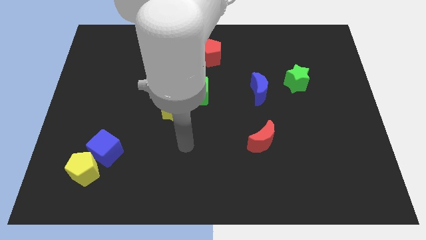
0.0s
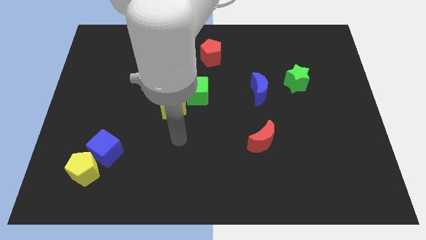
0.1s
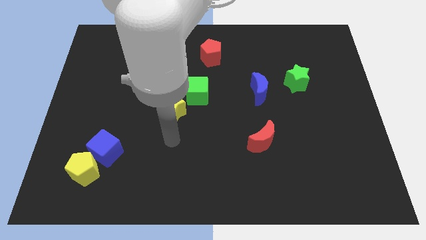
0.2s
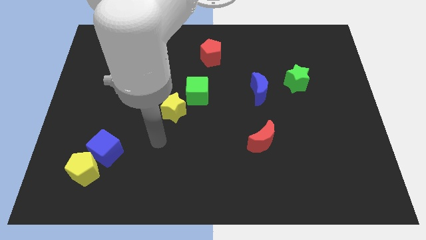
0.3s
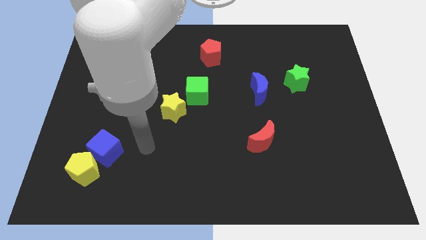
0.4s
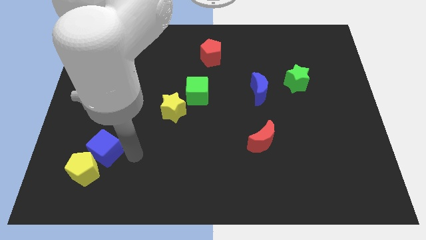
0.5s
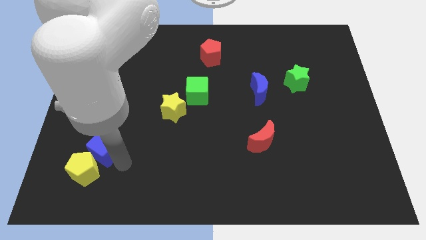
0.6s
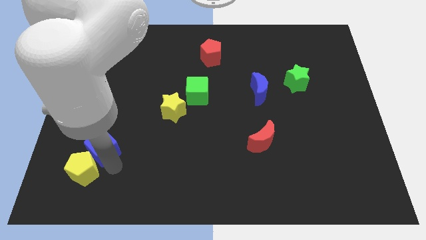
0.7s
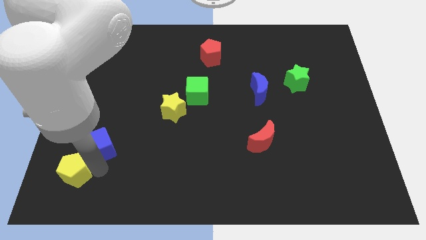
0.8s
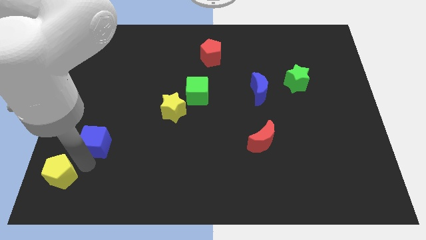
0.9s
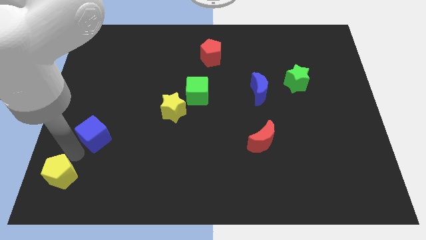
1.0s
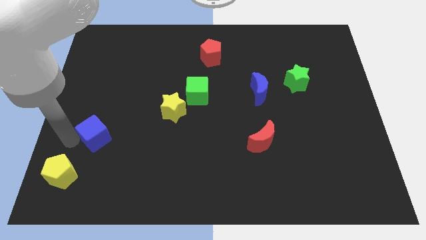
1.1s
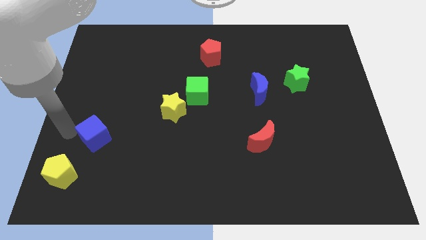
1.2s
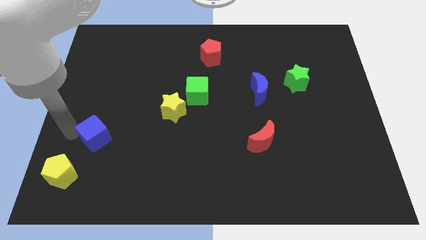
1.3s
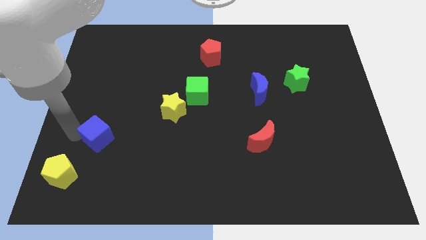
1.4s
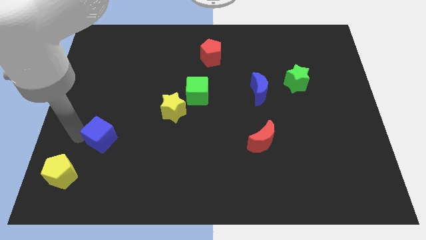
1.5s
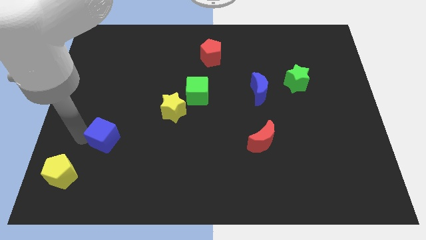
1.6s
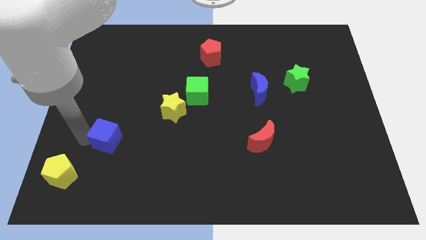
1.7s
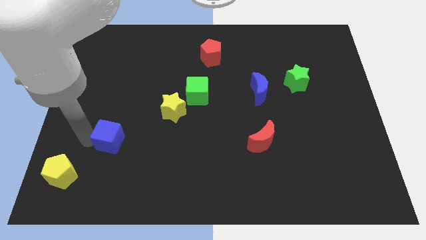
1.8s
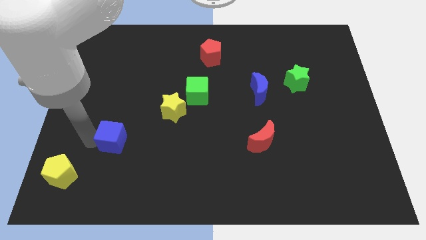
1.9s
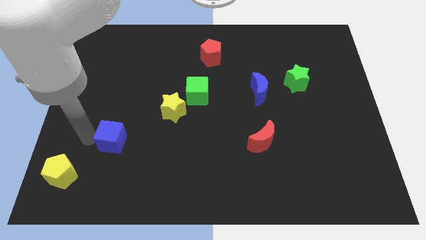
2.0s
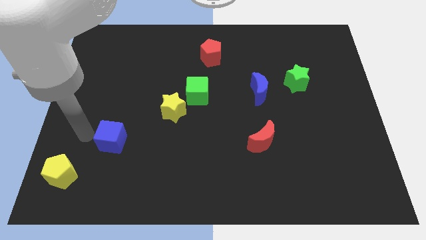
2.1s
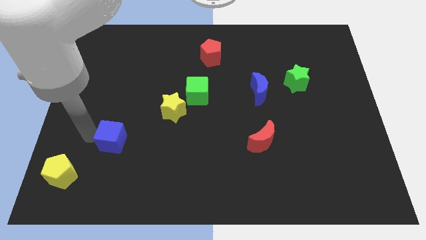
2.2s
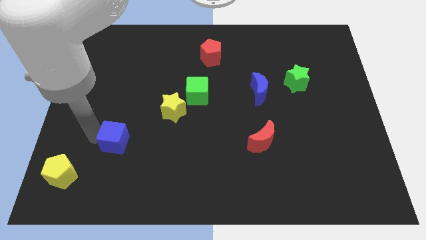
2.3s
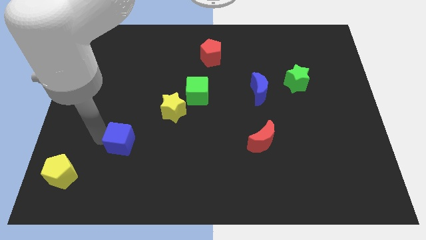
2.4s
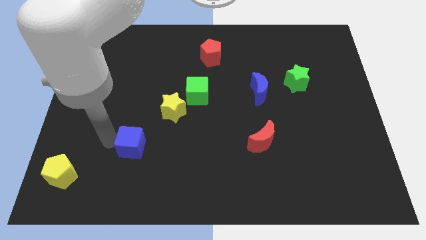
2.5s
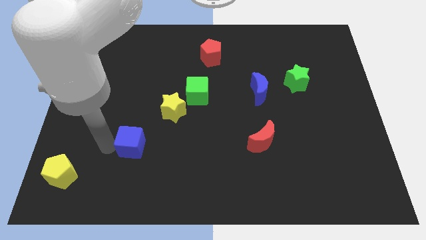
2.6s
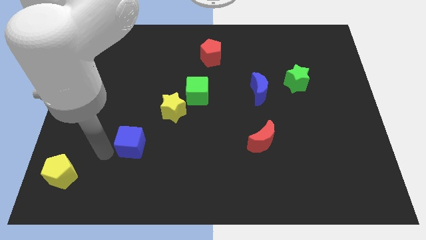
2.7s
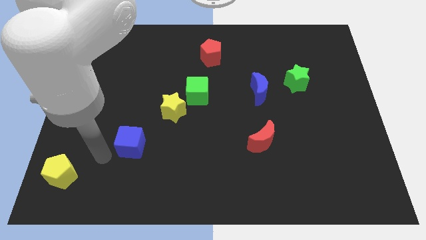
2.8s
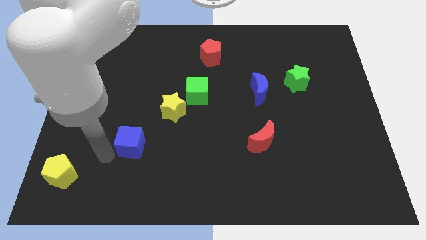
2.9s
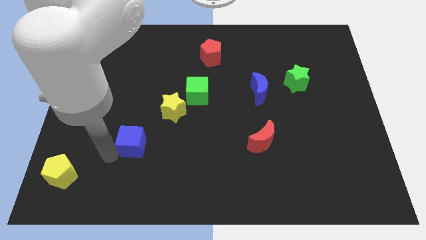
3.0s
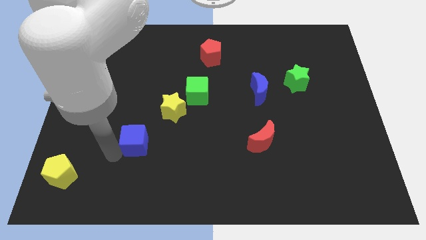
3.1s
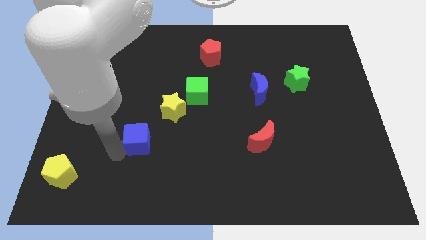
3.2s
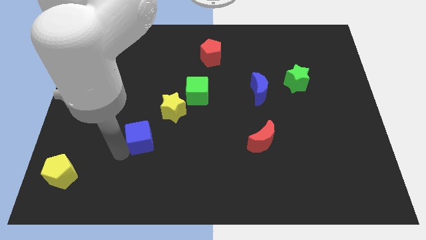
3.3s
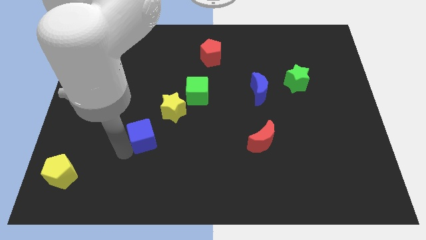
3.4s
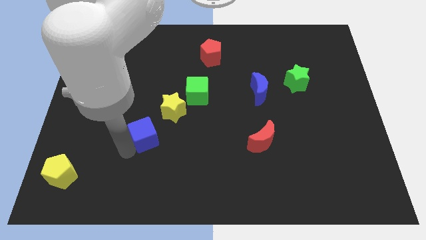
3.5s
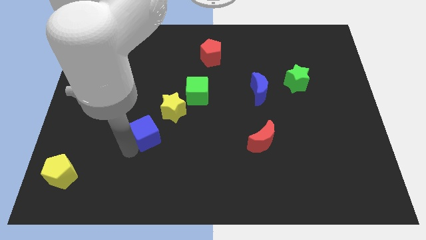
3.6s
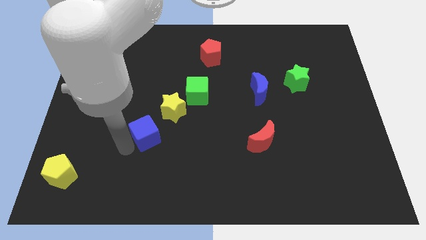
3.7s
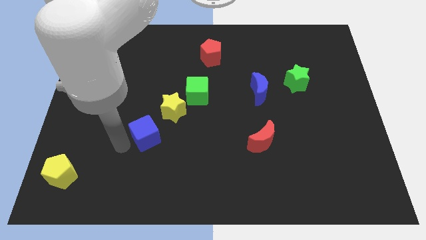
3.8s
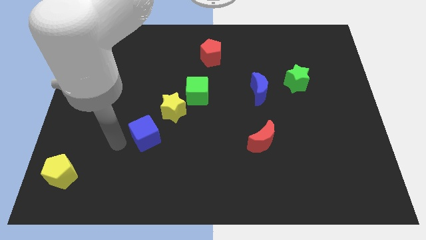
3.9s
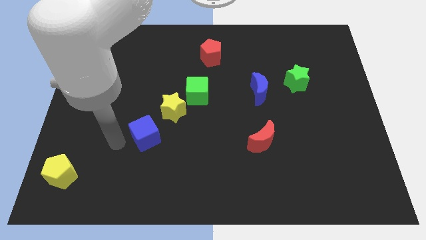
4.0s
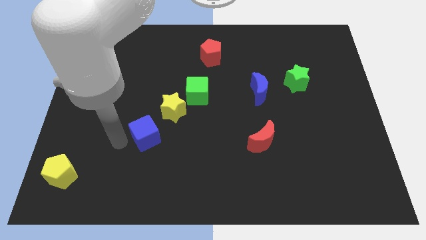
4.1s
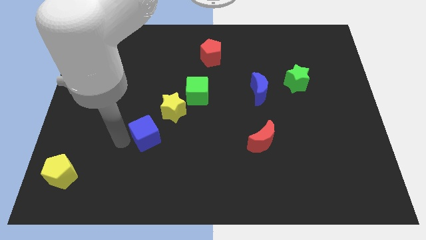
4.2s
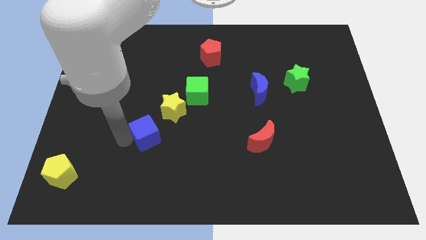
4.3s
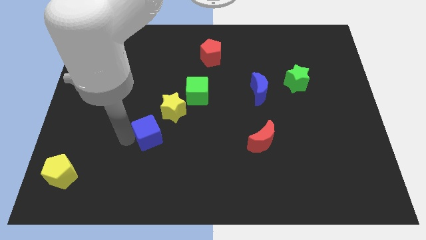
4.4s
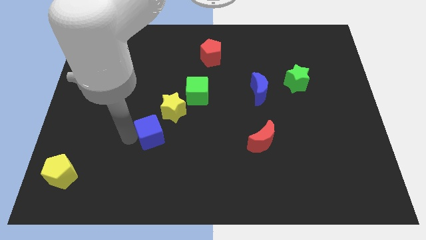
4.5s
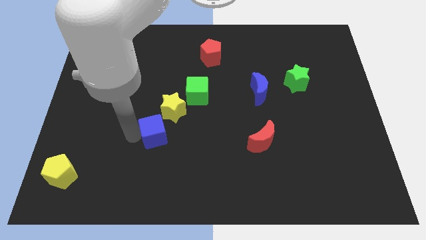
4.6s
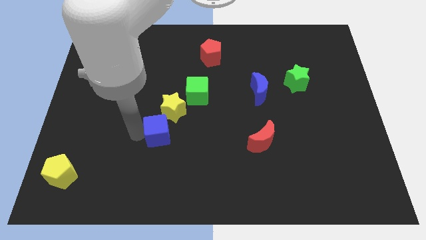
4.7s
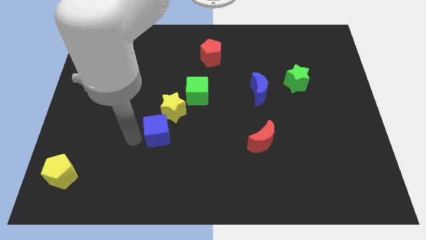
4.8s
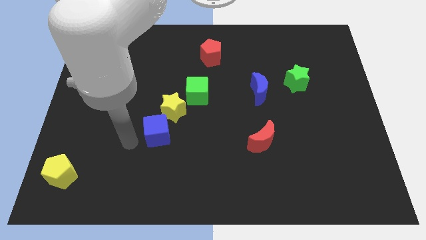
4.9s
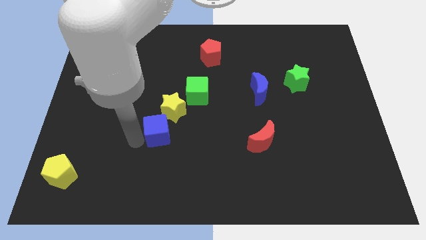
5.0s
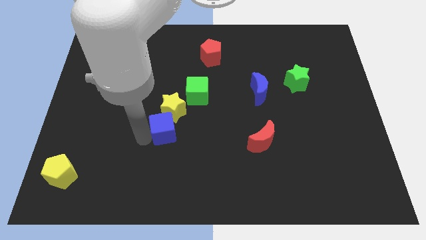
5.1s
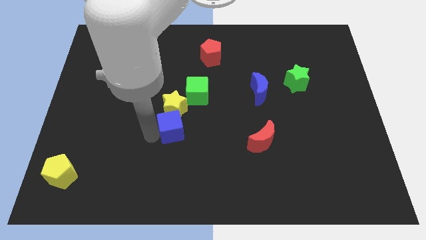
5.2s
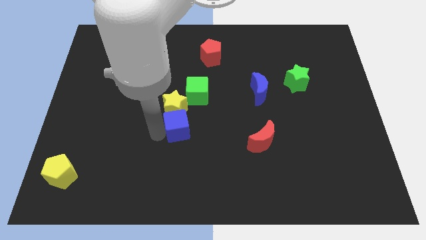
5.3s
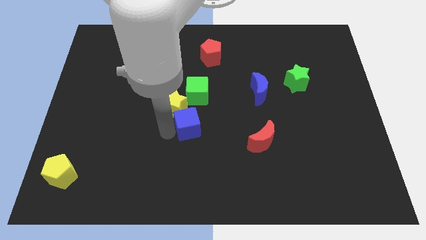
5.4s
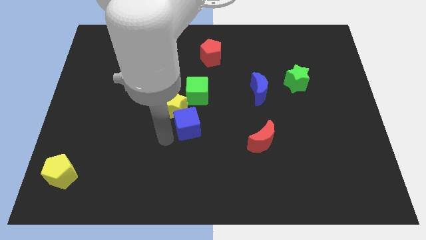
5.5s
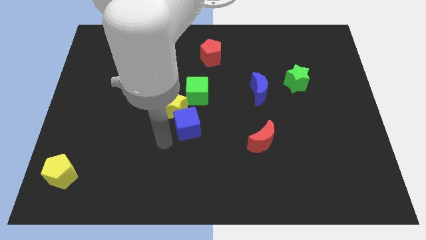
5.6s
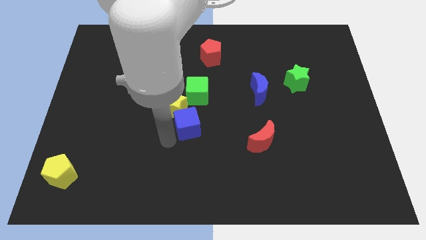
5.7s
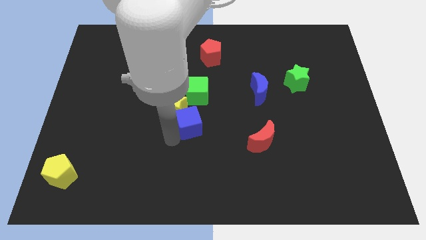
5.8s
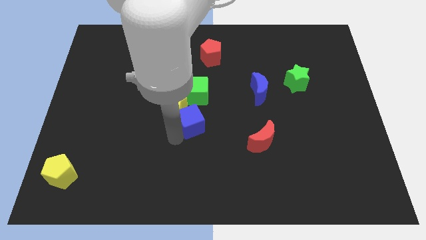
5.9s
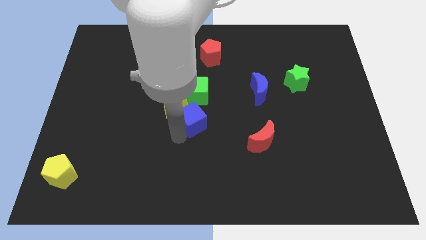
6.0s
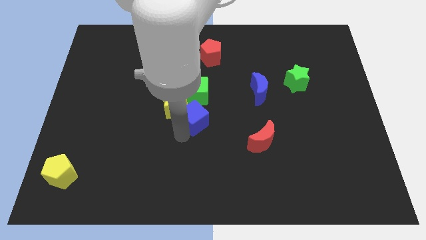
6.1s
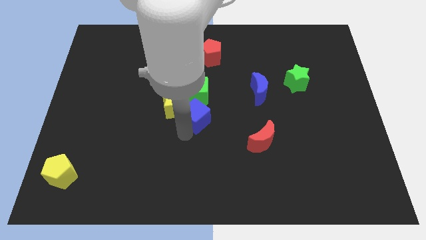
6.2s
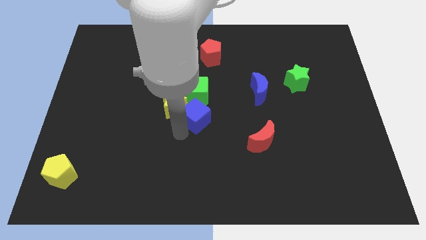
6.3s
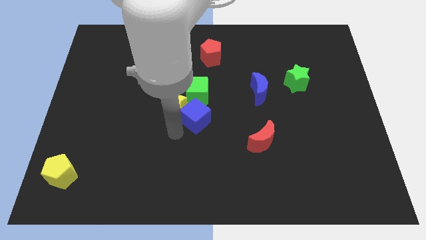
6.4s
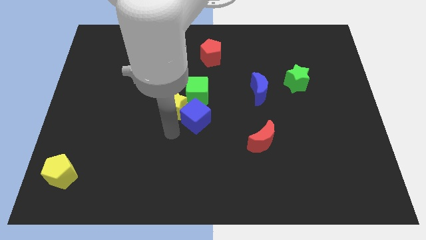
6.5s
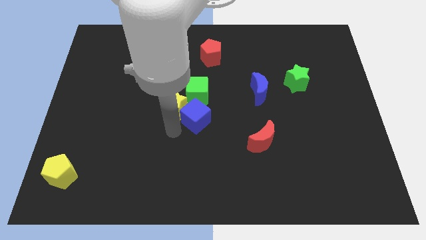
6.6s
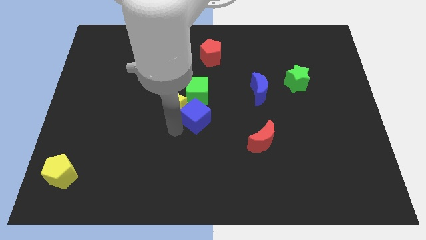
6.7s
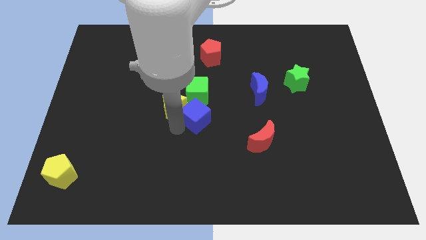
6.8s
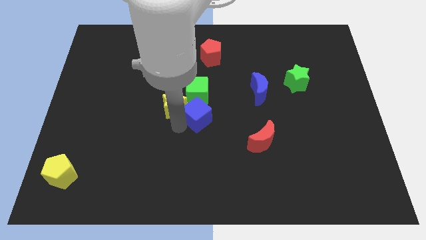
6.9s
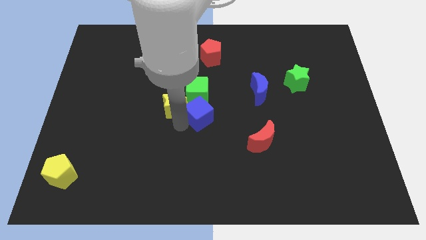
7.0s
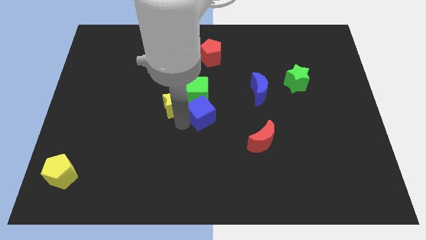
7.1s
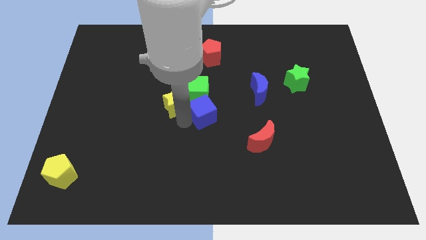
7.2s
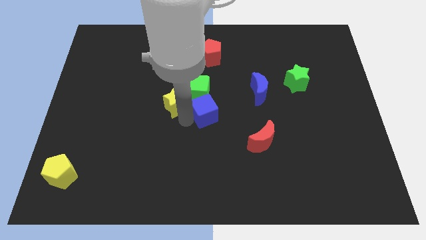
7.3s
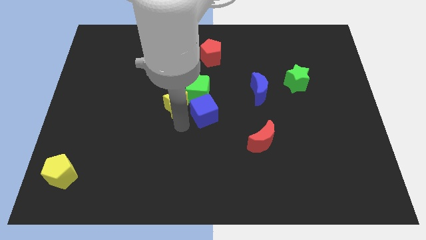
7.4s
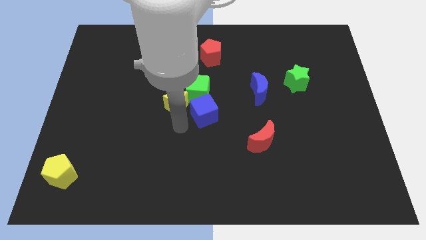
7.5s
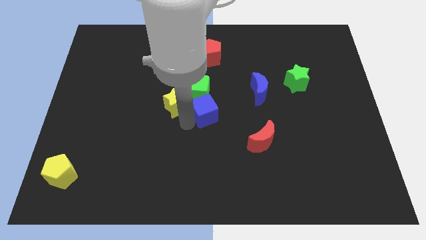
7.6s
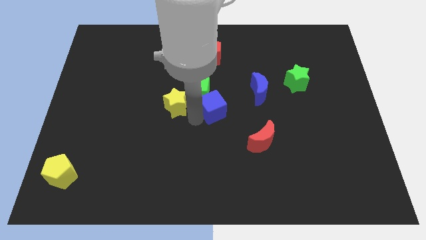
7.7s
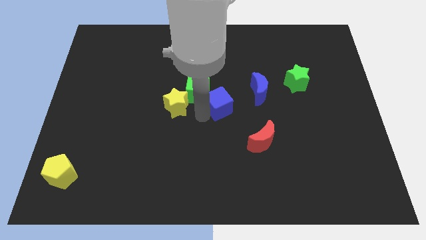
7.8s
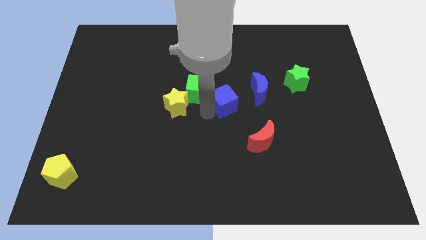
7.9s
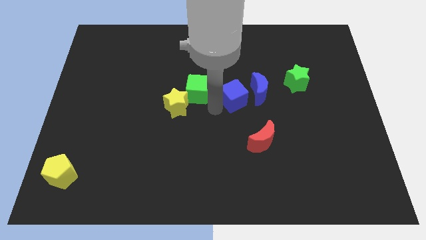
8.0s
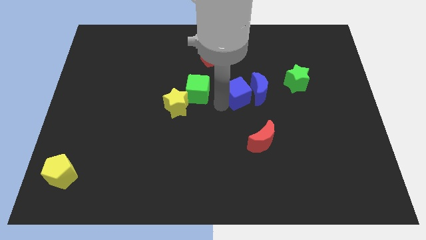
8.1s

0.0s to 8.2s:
move the blue cube close to the blue moon

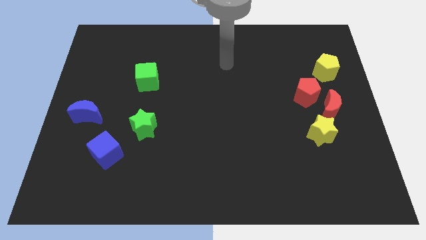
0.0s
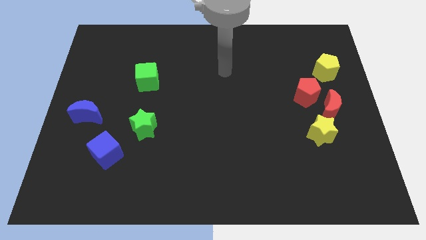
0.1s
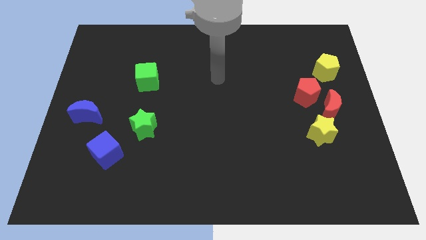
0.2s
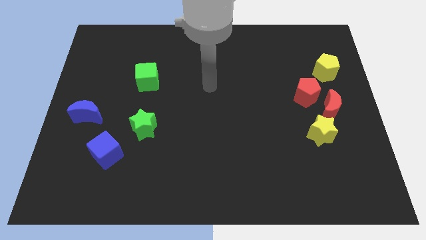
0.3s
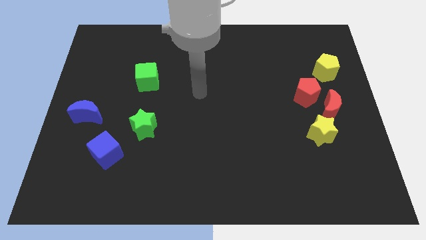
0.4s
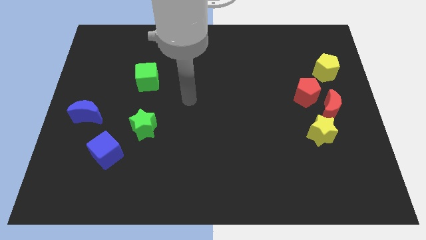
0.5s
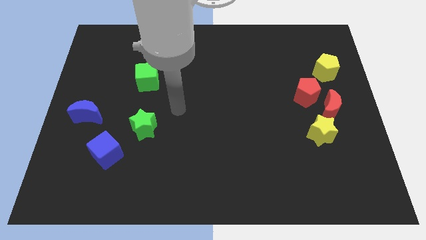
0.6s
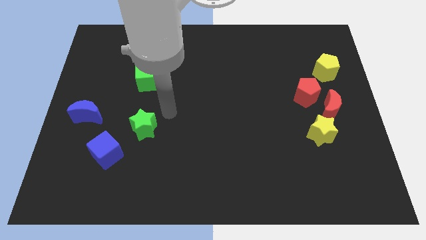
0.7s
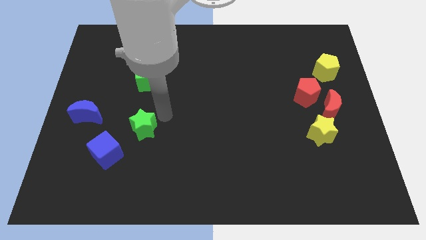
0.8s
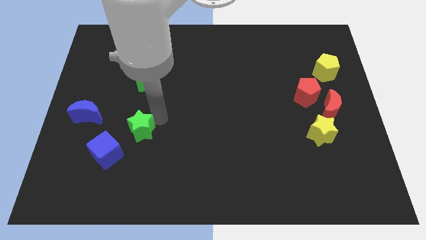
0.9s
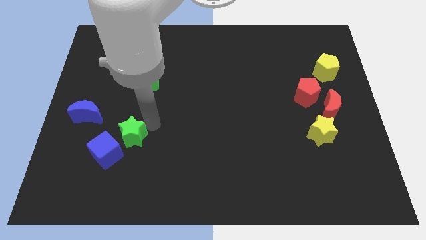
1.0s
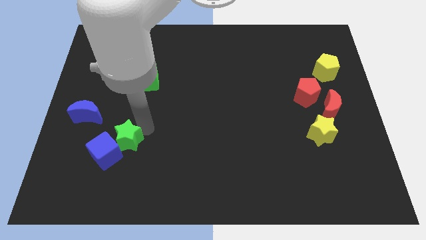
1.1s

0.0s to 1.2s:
move the green star towards the blue cube
